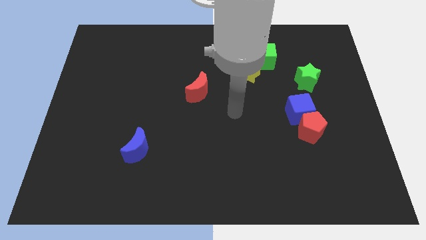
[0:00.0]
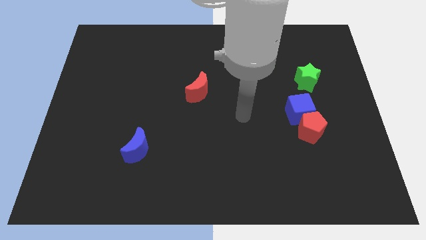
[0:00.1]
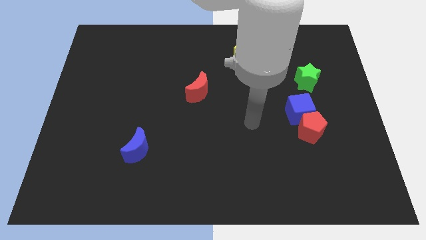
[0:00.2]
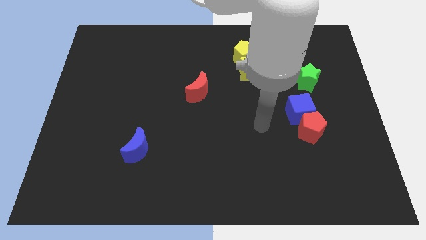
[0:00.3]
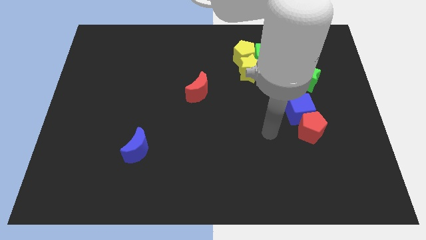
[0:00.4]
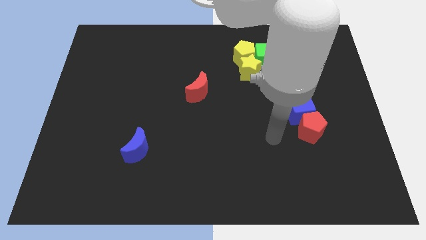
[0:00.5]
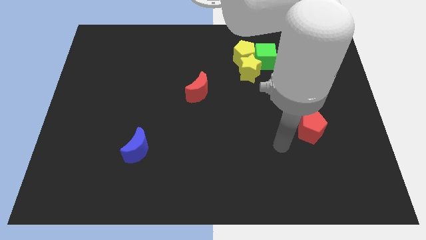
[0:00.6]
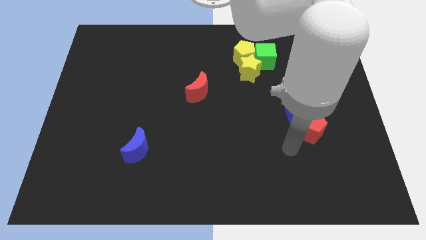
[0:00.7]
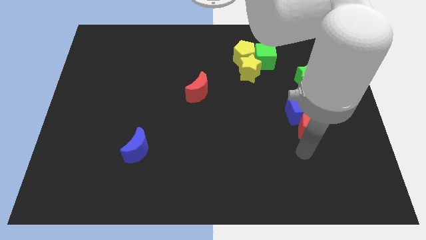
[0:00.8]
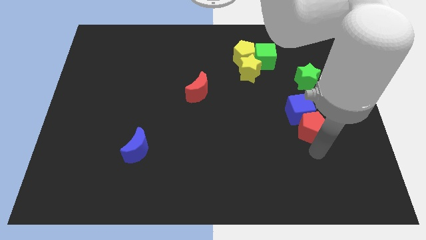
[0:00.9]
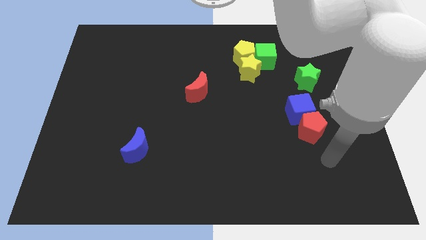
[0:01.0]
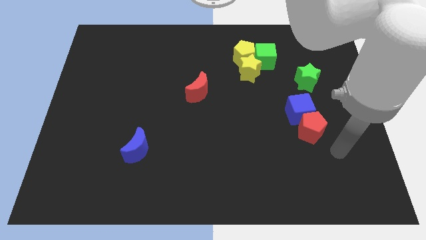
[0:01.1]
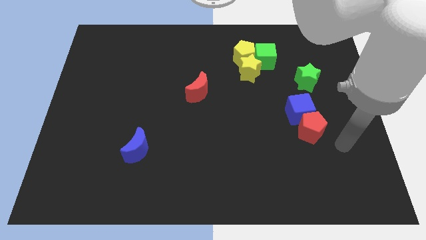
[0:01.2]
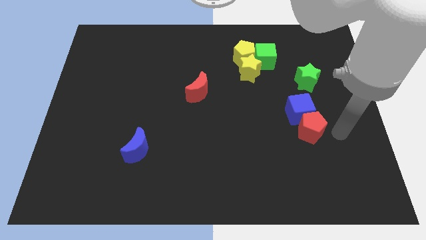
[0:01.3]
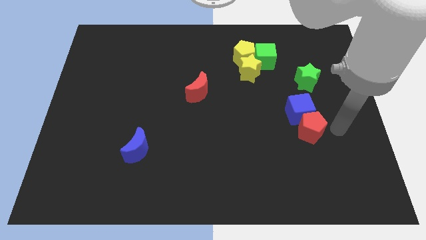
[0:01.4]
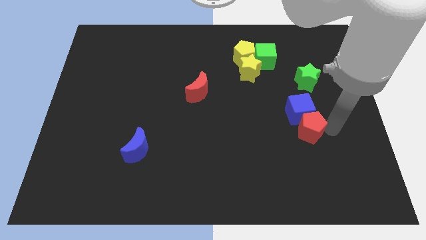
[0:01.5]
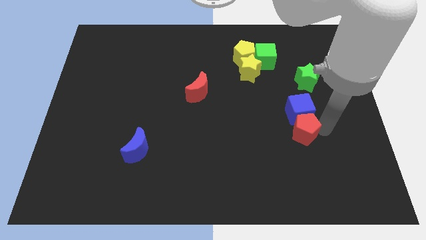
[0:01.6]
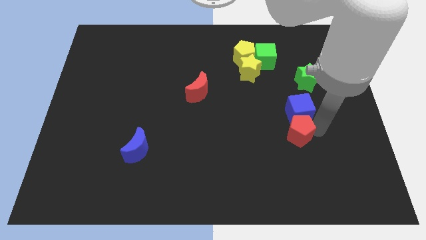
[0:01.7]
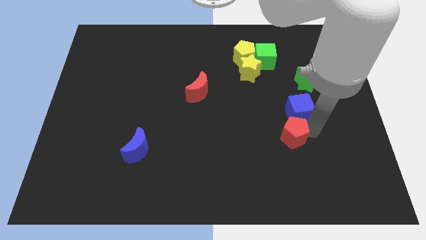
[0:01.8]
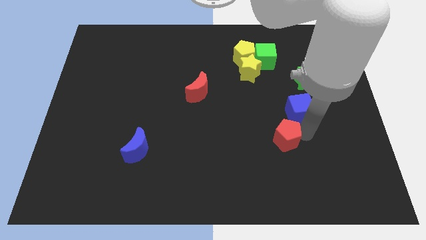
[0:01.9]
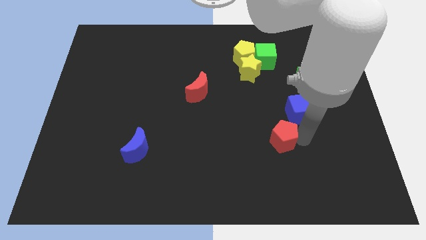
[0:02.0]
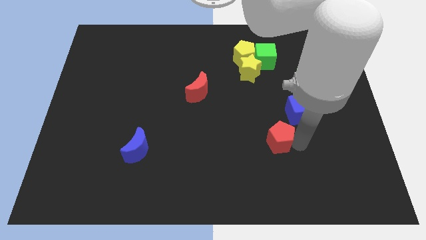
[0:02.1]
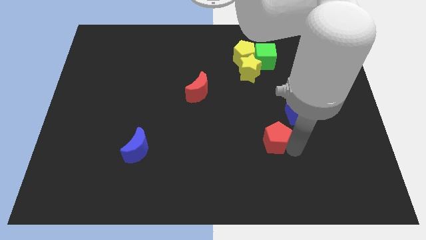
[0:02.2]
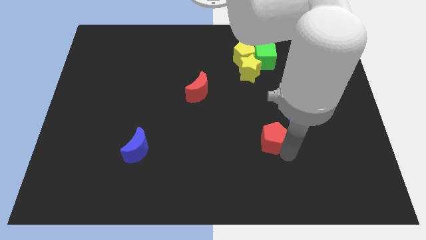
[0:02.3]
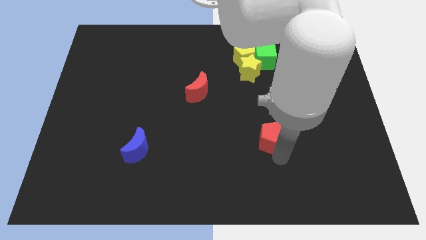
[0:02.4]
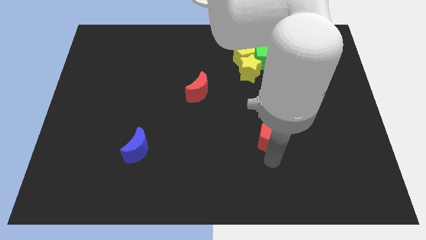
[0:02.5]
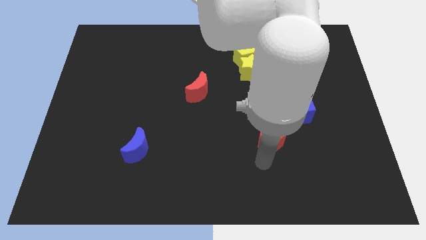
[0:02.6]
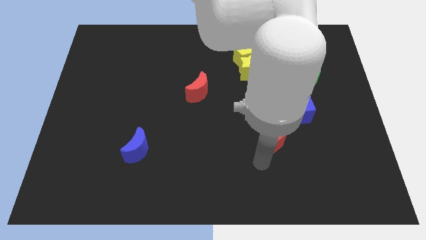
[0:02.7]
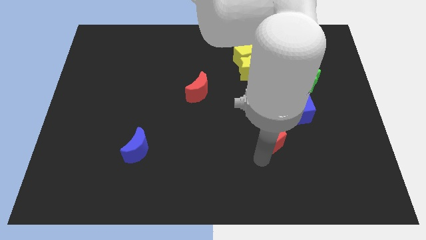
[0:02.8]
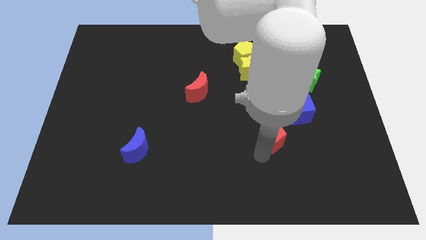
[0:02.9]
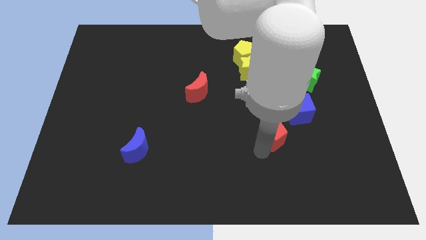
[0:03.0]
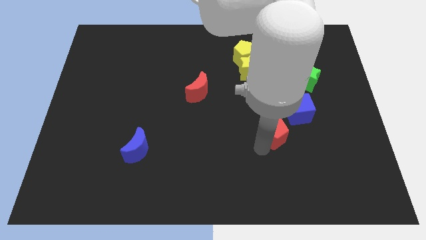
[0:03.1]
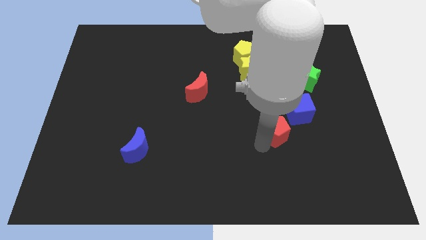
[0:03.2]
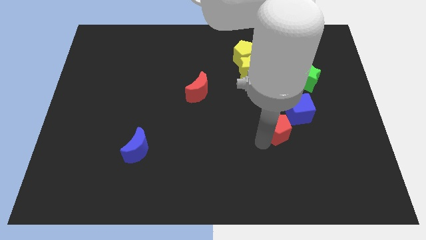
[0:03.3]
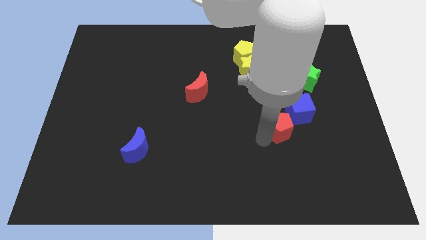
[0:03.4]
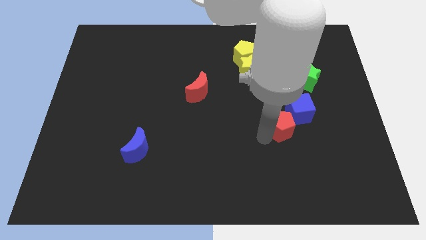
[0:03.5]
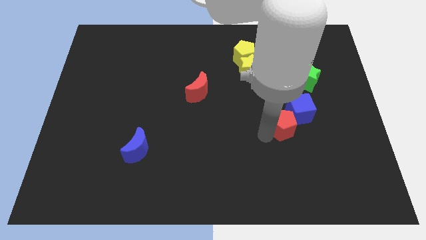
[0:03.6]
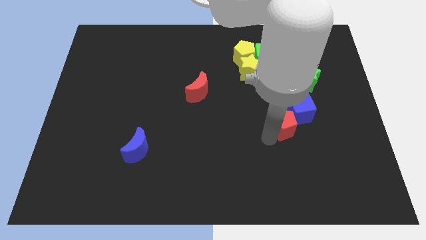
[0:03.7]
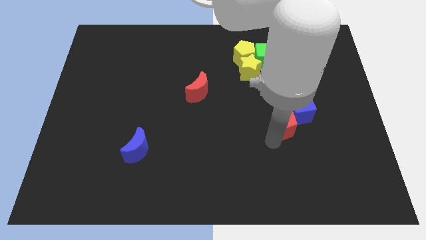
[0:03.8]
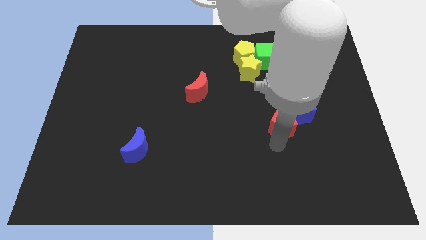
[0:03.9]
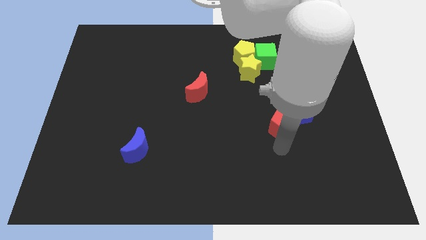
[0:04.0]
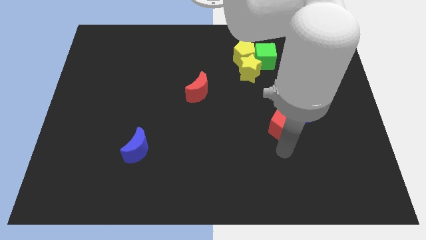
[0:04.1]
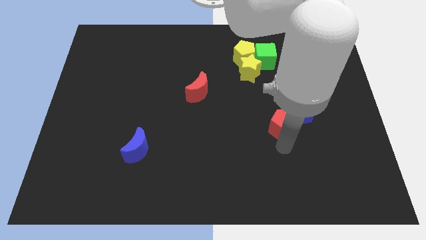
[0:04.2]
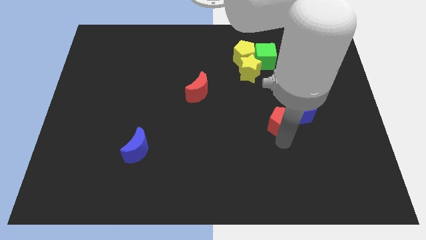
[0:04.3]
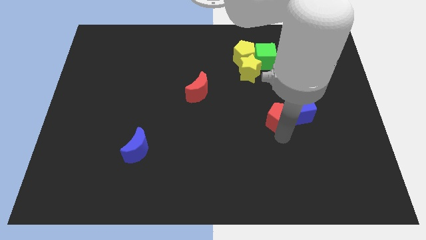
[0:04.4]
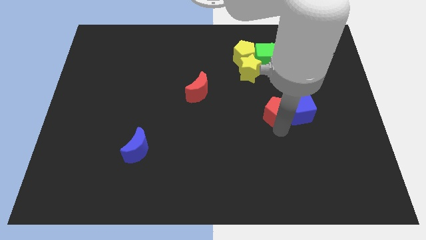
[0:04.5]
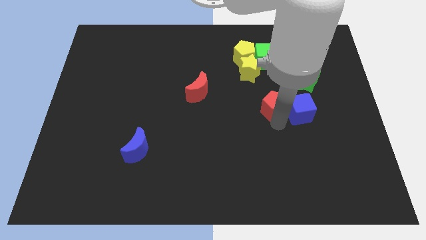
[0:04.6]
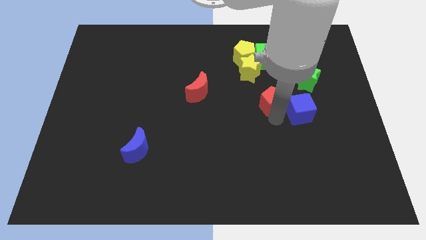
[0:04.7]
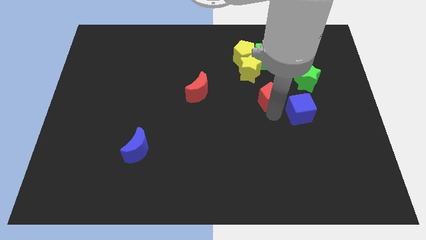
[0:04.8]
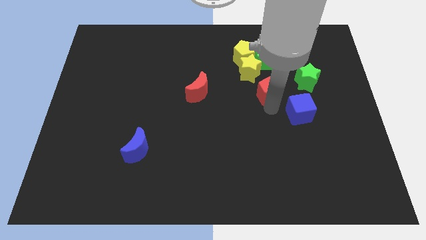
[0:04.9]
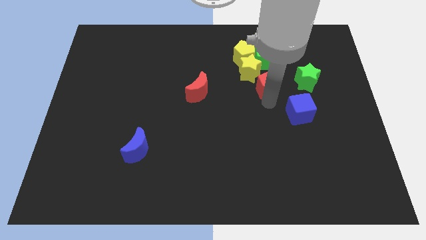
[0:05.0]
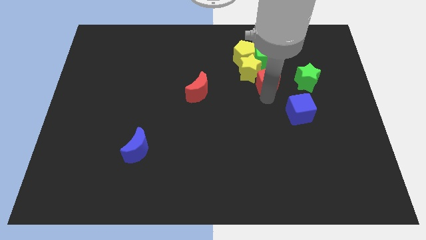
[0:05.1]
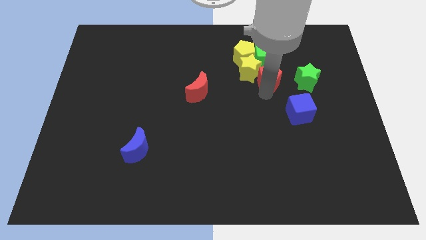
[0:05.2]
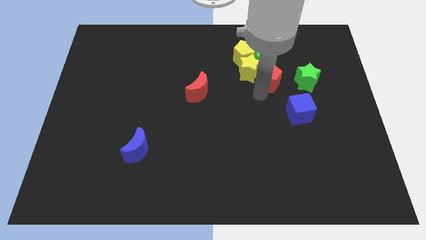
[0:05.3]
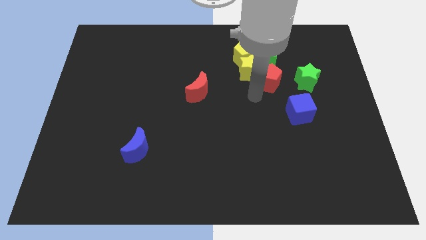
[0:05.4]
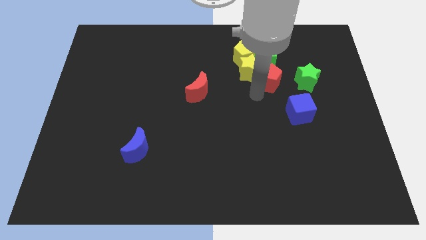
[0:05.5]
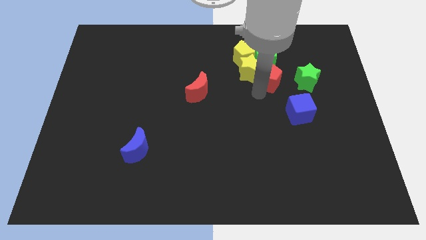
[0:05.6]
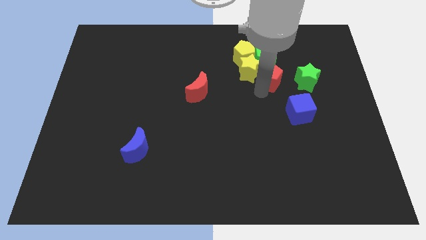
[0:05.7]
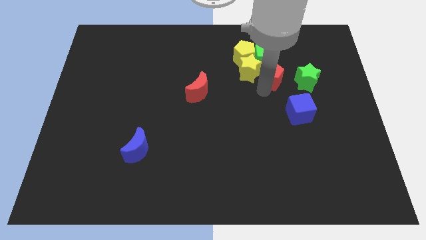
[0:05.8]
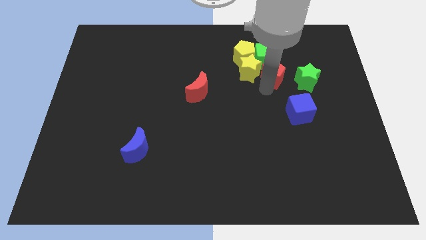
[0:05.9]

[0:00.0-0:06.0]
put the red pentagon to the top left of the green star

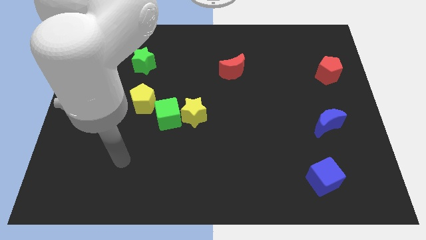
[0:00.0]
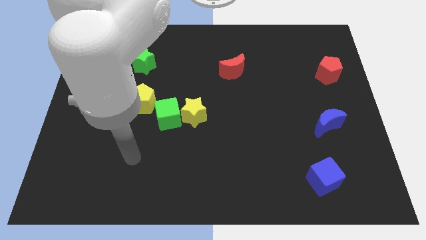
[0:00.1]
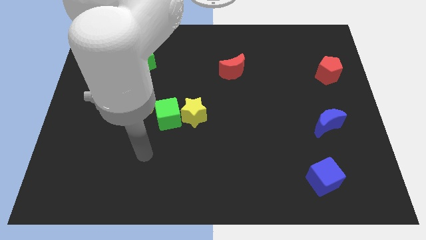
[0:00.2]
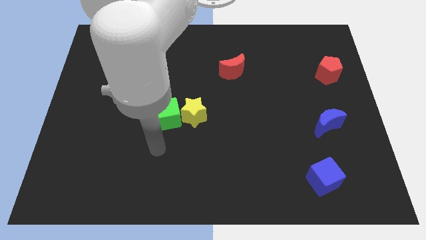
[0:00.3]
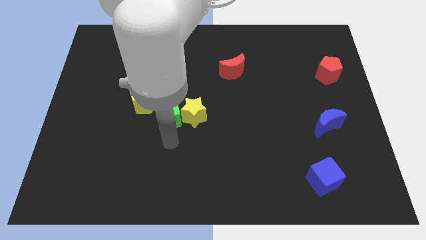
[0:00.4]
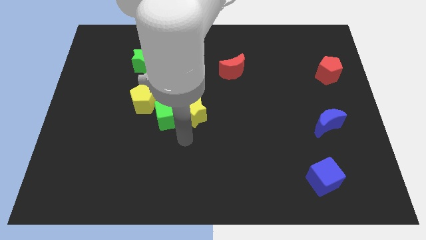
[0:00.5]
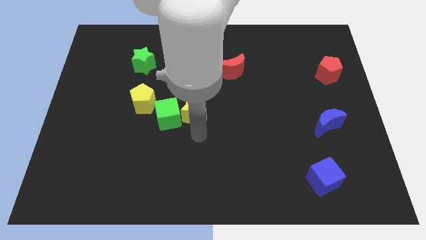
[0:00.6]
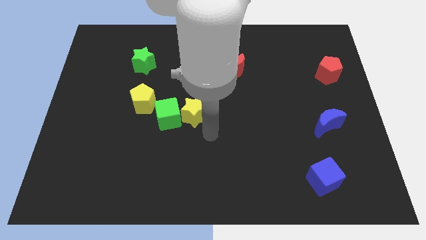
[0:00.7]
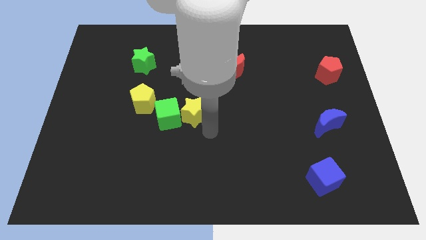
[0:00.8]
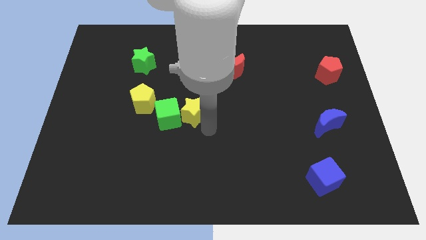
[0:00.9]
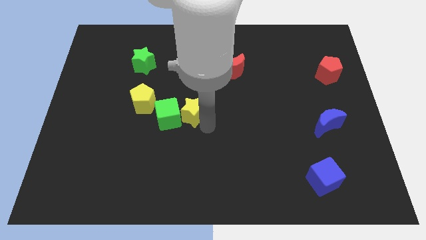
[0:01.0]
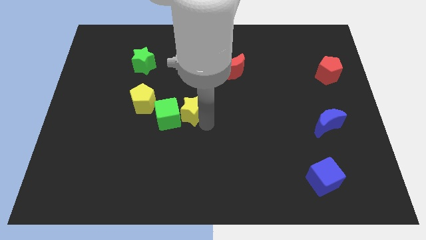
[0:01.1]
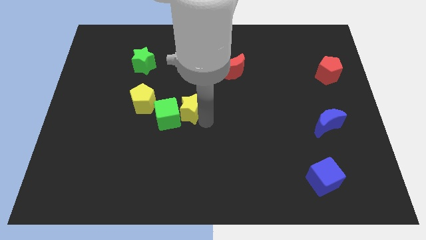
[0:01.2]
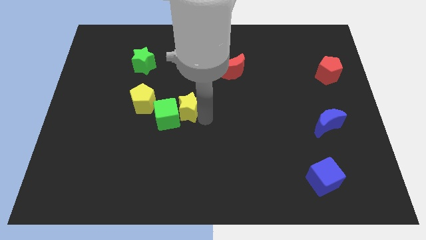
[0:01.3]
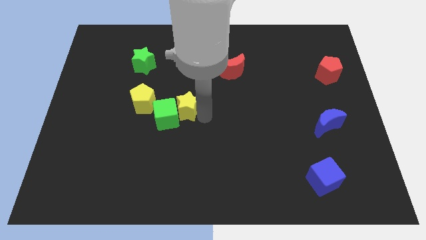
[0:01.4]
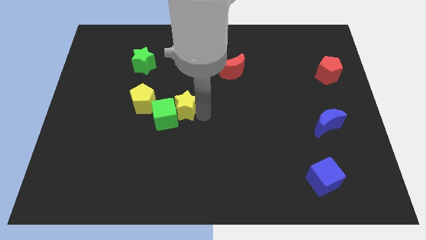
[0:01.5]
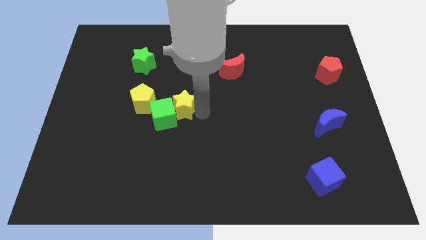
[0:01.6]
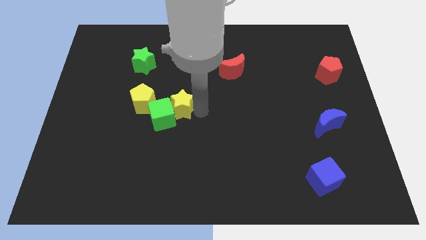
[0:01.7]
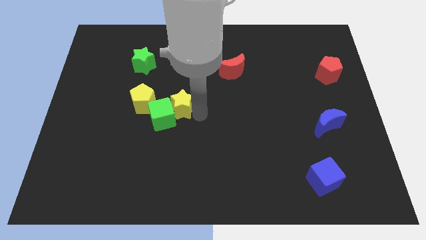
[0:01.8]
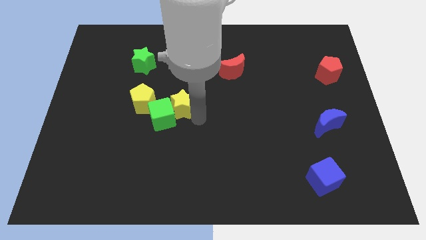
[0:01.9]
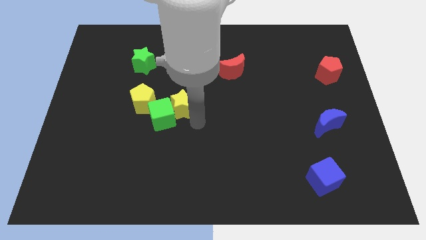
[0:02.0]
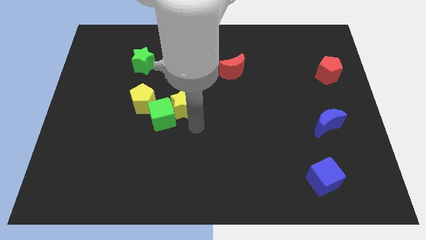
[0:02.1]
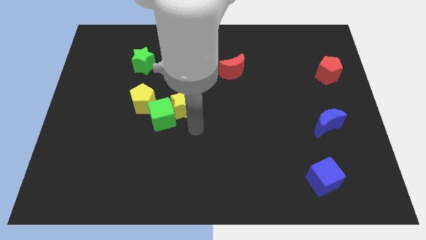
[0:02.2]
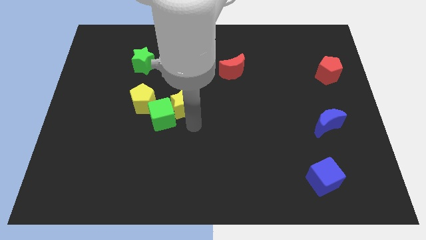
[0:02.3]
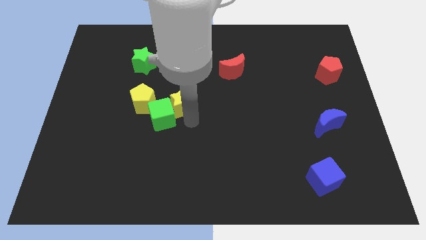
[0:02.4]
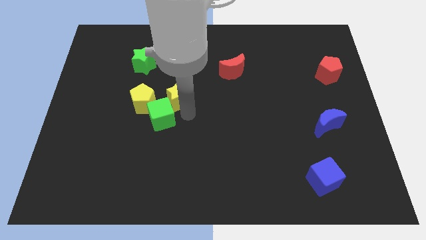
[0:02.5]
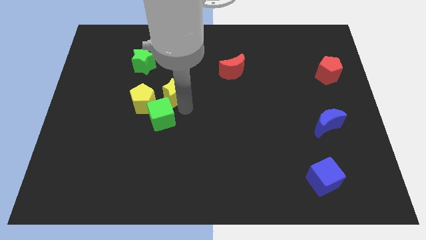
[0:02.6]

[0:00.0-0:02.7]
slide the yellow star diagonally up and to the right of the yellow pentagon
